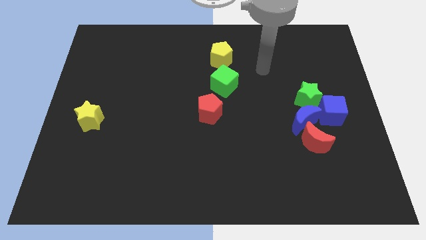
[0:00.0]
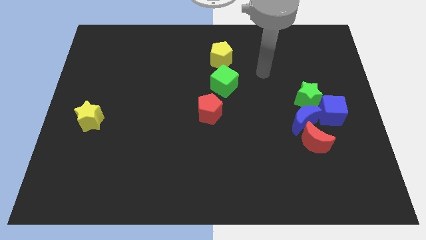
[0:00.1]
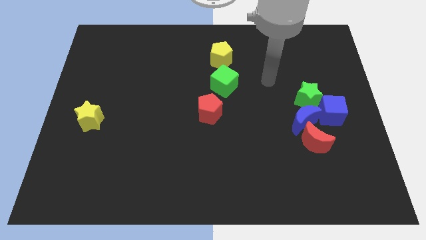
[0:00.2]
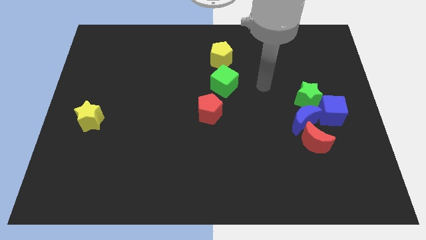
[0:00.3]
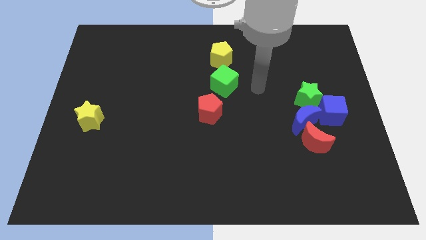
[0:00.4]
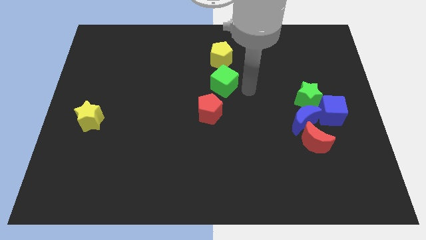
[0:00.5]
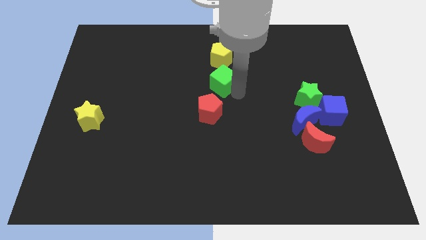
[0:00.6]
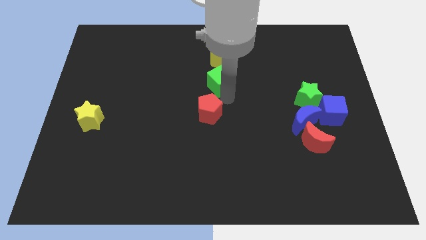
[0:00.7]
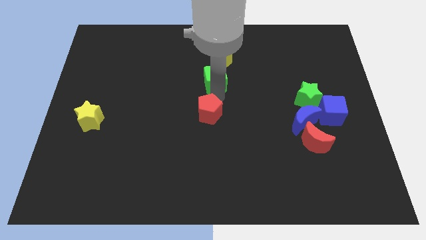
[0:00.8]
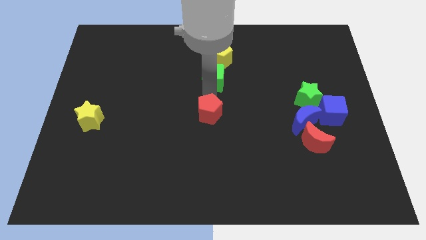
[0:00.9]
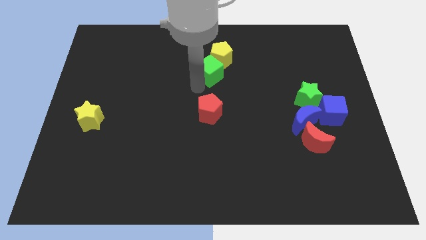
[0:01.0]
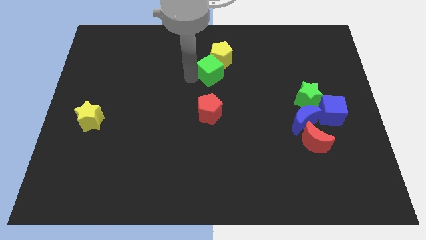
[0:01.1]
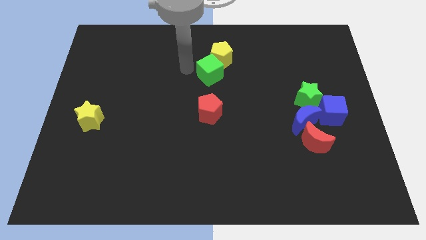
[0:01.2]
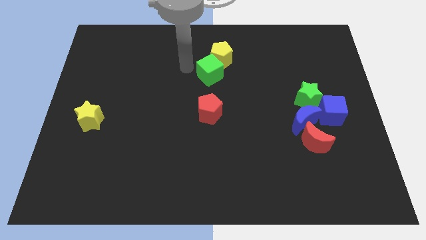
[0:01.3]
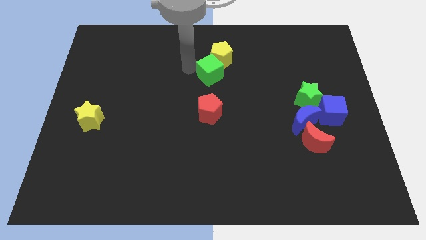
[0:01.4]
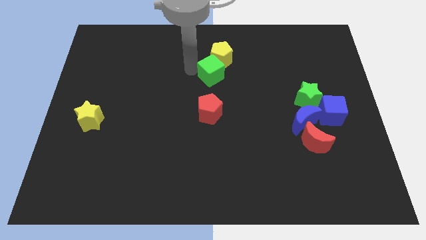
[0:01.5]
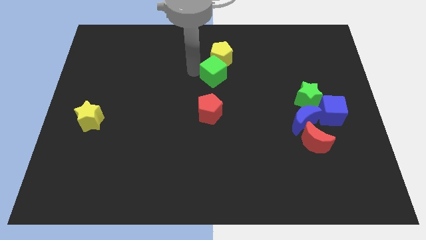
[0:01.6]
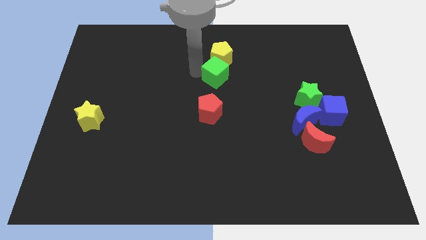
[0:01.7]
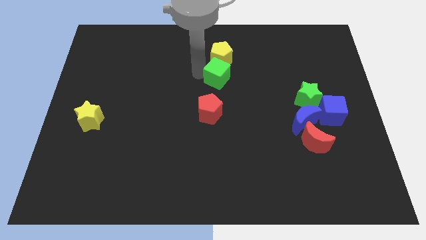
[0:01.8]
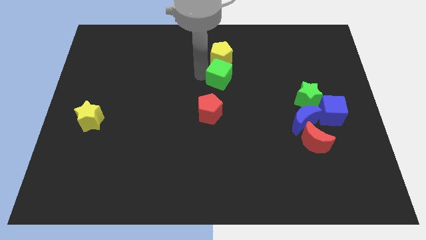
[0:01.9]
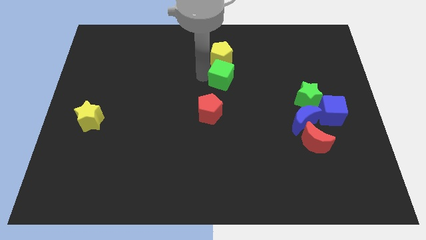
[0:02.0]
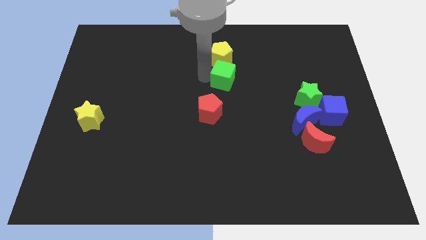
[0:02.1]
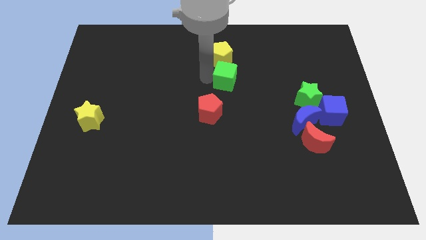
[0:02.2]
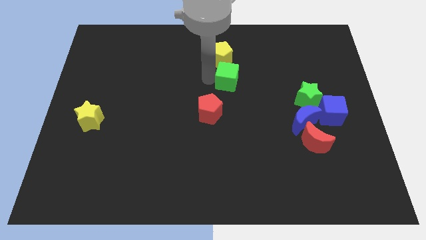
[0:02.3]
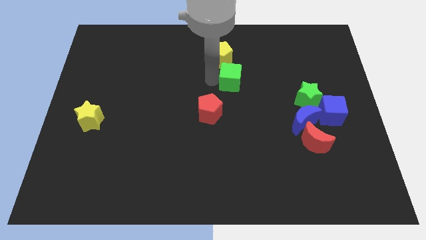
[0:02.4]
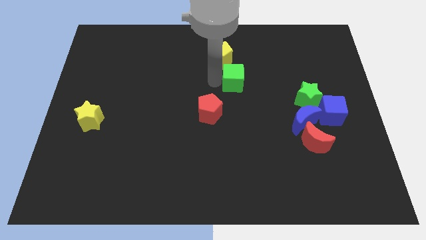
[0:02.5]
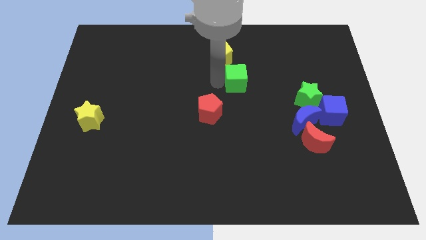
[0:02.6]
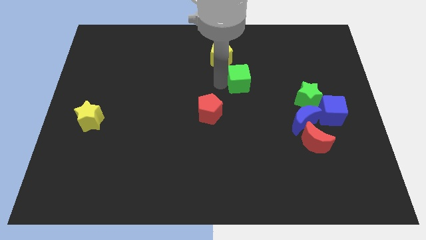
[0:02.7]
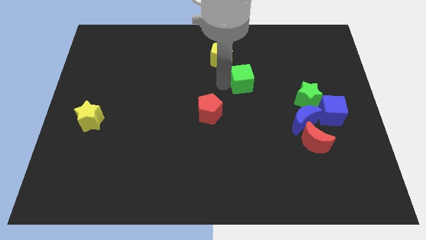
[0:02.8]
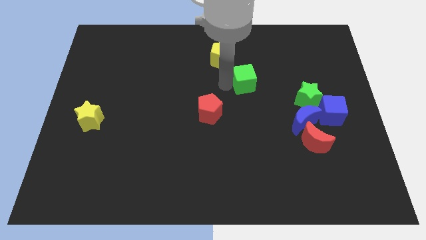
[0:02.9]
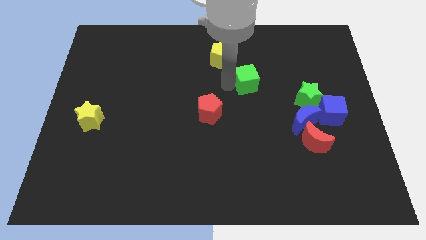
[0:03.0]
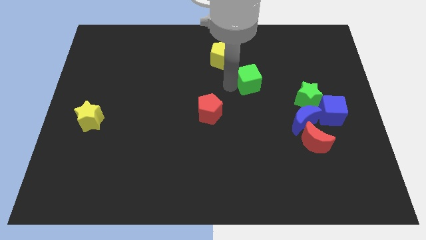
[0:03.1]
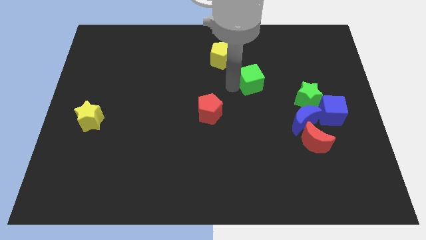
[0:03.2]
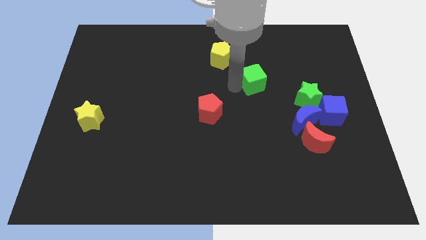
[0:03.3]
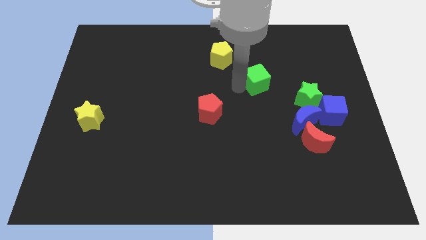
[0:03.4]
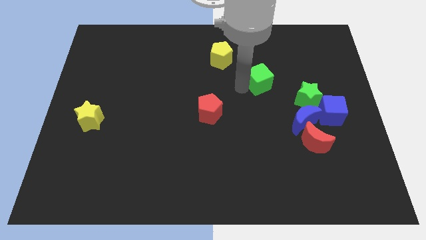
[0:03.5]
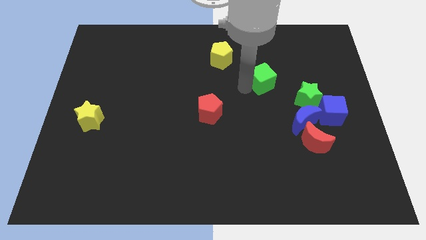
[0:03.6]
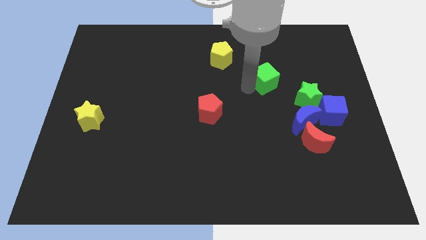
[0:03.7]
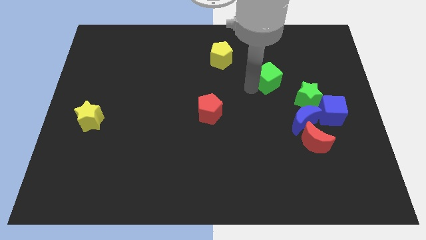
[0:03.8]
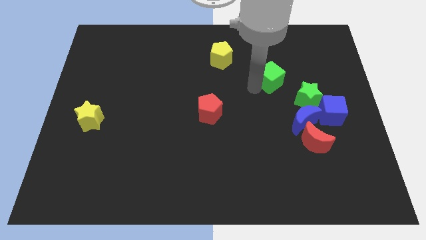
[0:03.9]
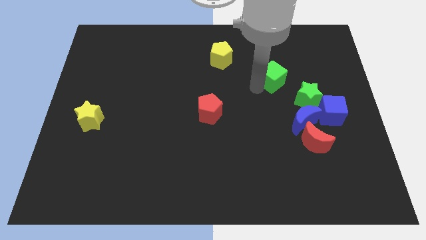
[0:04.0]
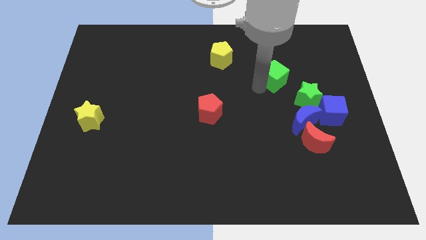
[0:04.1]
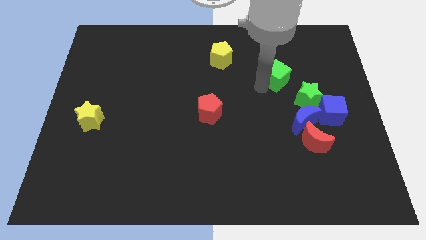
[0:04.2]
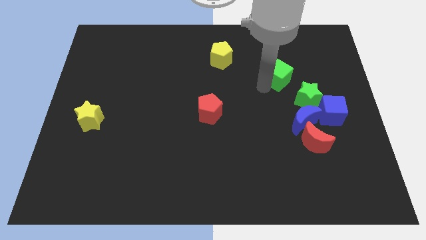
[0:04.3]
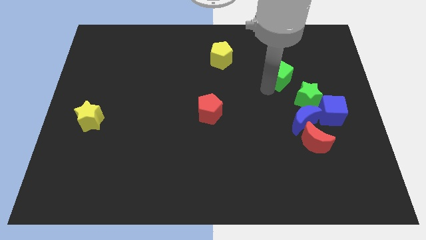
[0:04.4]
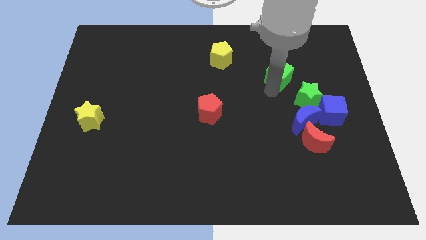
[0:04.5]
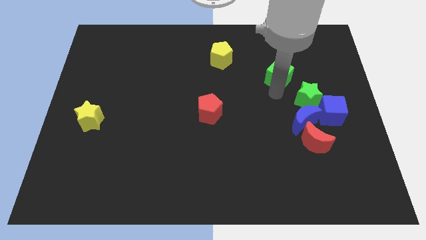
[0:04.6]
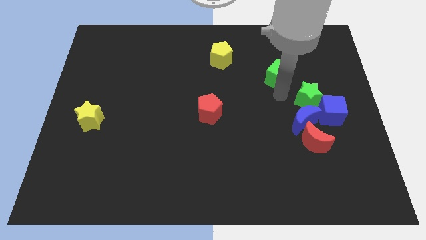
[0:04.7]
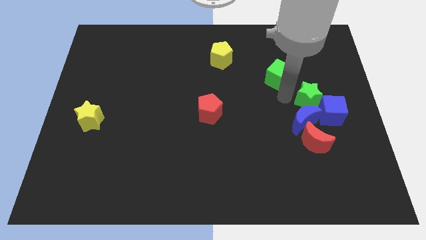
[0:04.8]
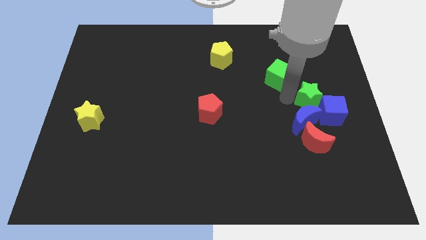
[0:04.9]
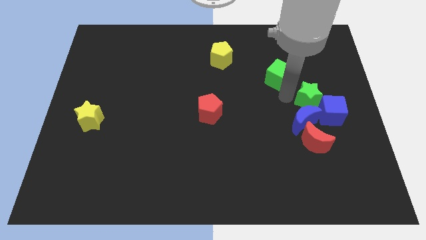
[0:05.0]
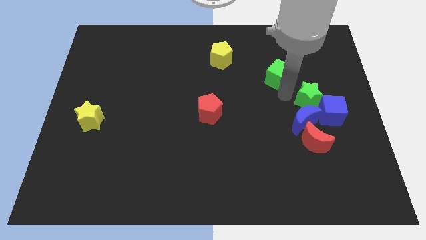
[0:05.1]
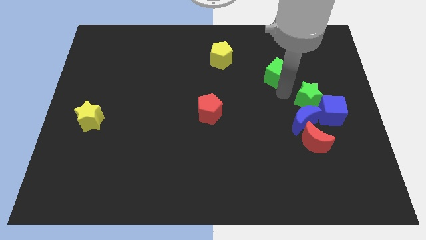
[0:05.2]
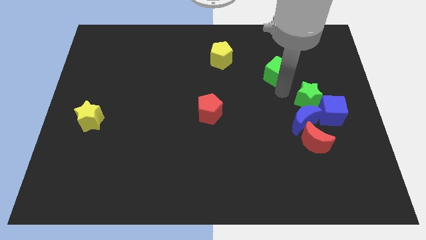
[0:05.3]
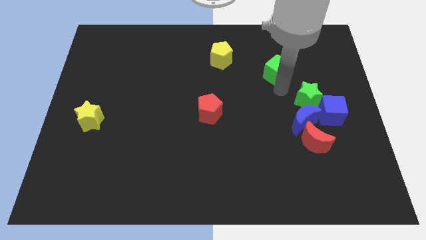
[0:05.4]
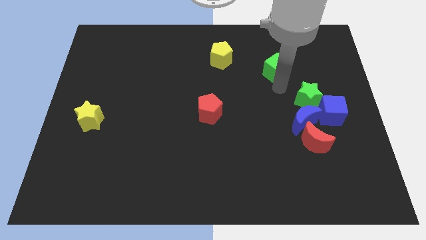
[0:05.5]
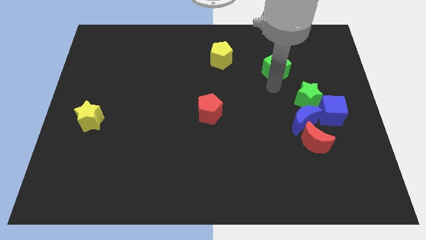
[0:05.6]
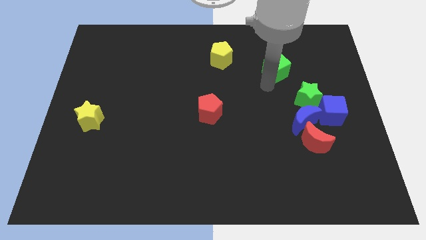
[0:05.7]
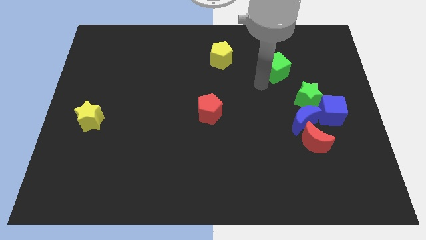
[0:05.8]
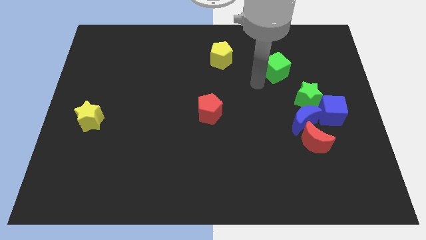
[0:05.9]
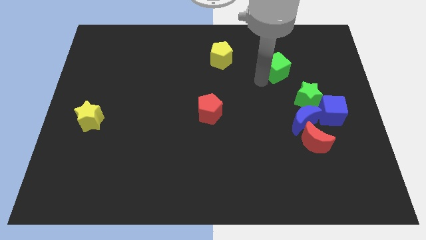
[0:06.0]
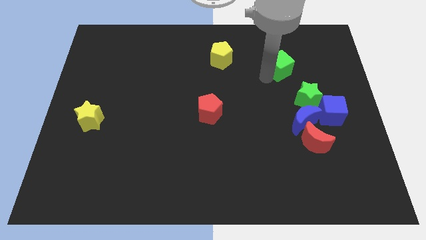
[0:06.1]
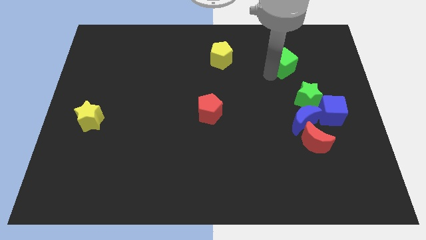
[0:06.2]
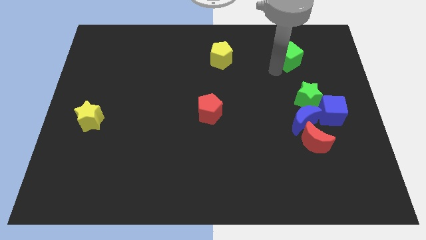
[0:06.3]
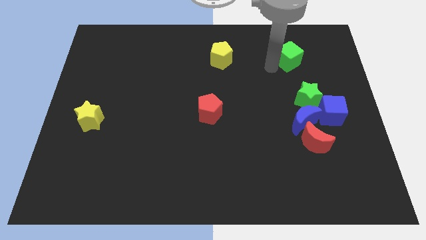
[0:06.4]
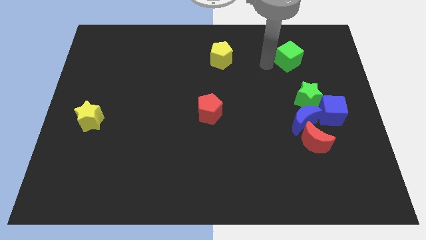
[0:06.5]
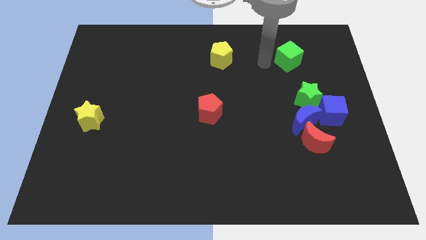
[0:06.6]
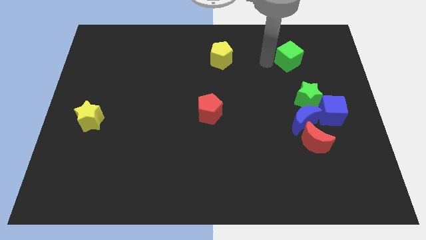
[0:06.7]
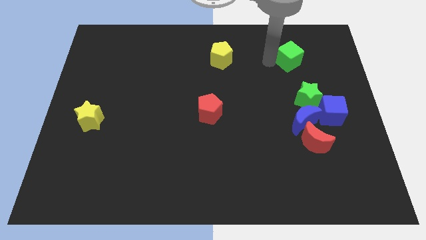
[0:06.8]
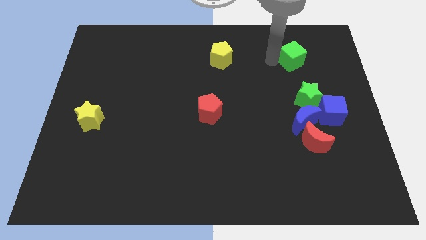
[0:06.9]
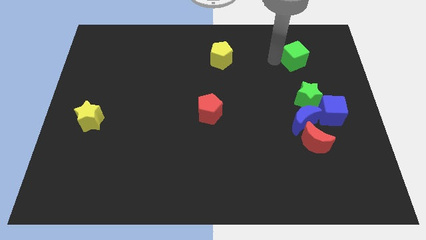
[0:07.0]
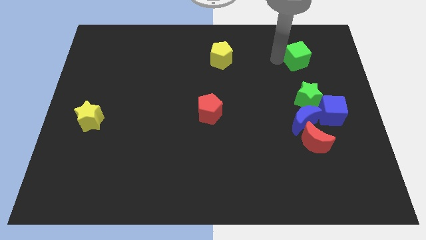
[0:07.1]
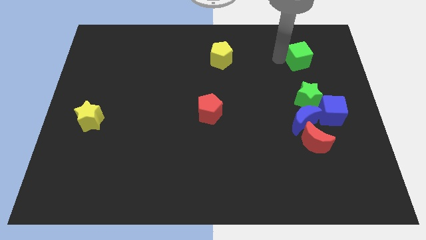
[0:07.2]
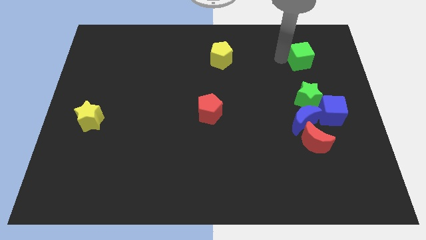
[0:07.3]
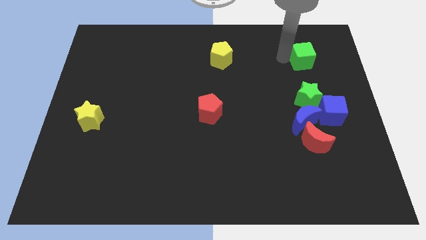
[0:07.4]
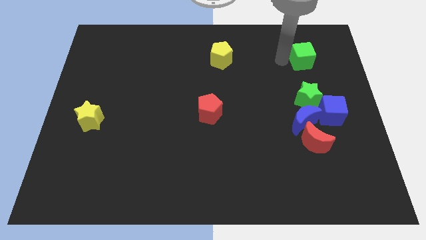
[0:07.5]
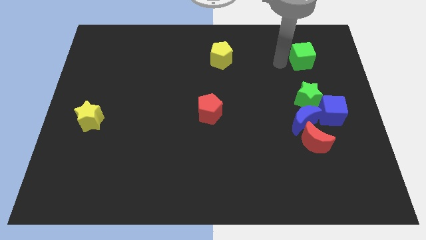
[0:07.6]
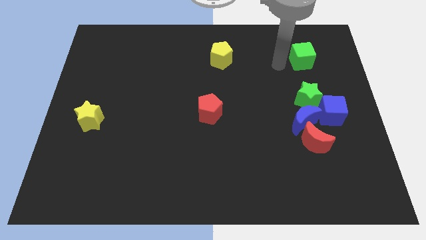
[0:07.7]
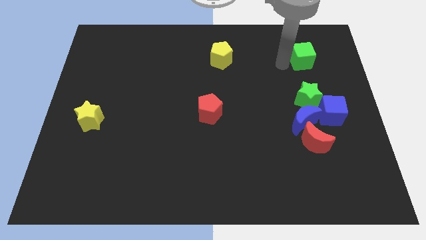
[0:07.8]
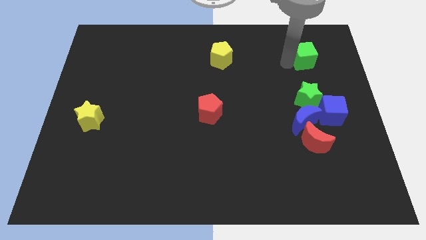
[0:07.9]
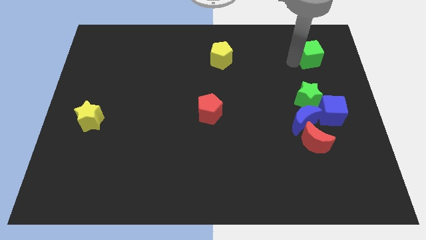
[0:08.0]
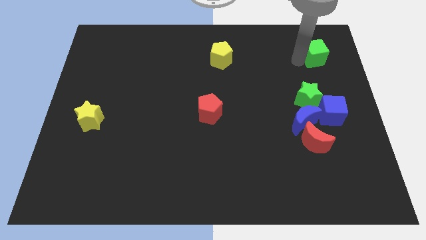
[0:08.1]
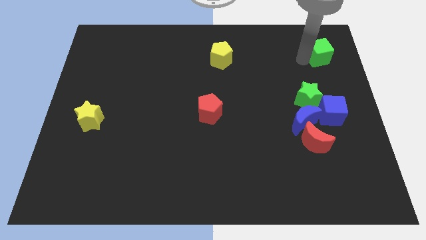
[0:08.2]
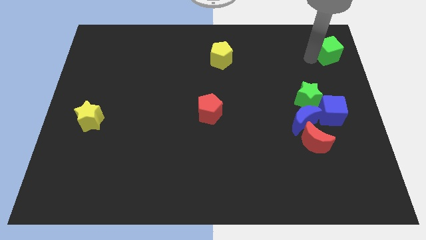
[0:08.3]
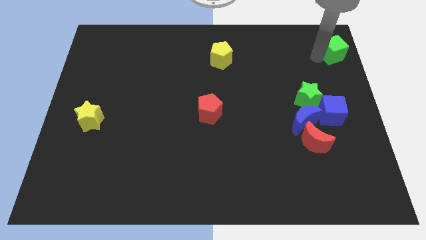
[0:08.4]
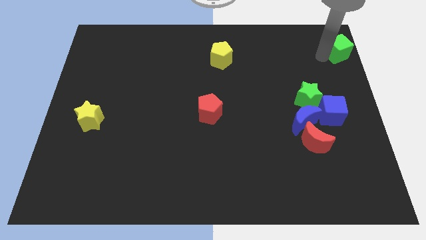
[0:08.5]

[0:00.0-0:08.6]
put the green cube to the top right corner
